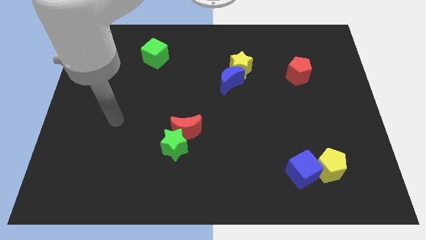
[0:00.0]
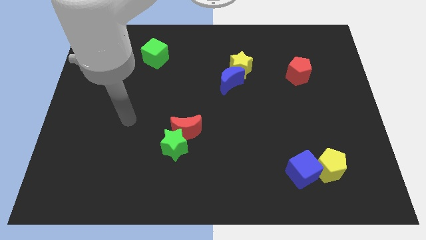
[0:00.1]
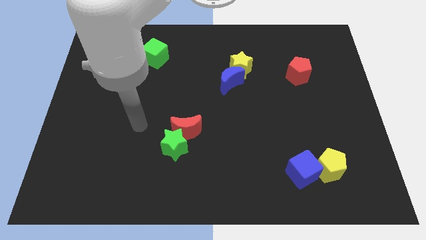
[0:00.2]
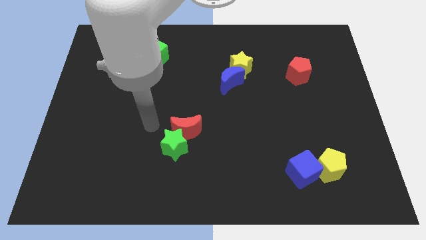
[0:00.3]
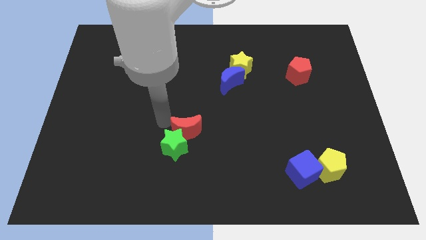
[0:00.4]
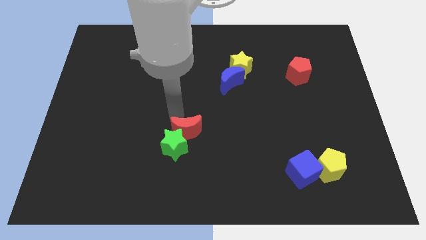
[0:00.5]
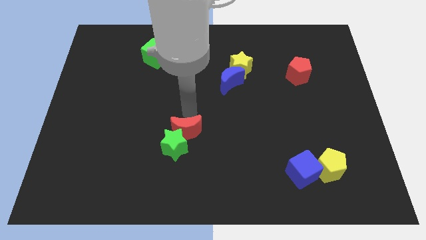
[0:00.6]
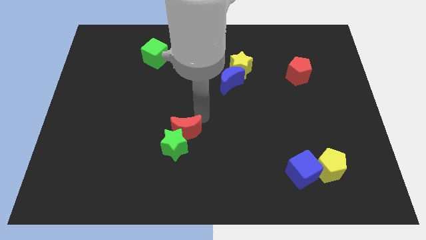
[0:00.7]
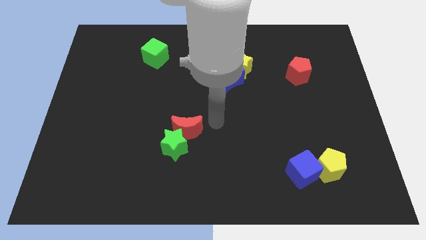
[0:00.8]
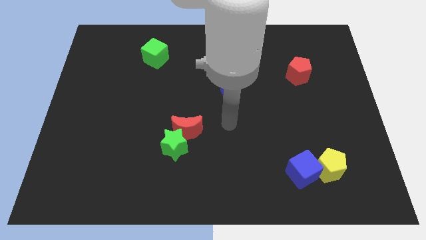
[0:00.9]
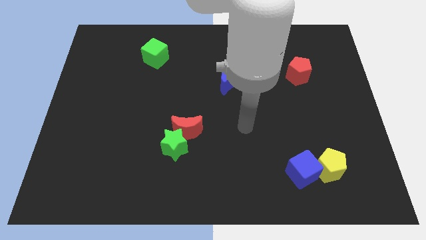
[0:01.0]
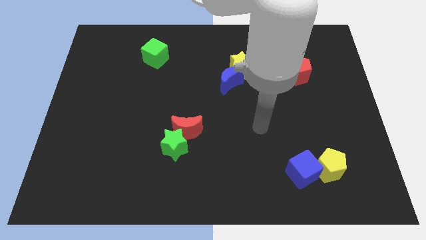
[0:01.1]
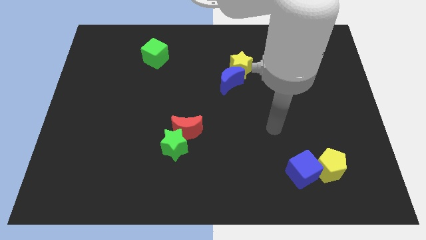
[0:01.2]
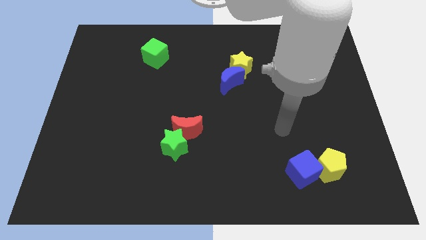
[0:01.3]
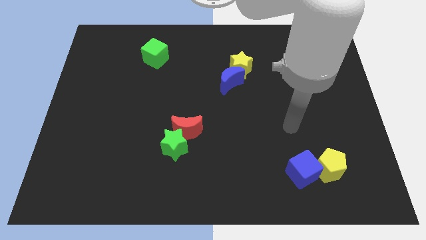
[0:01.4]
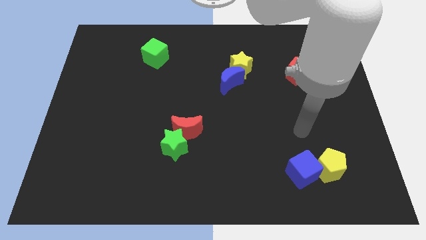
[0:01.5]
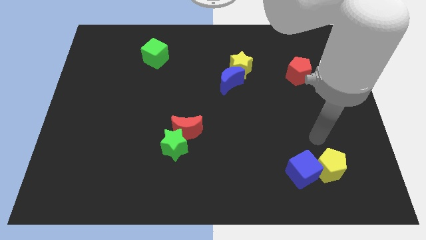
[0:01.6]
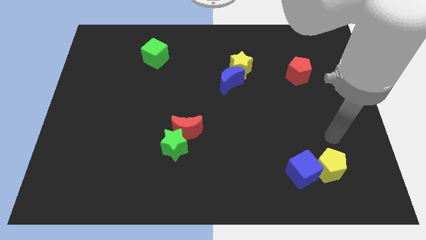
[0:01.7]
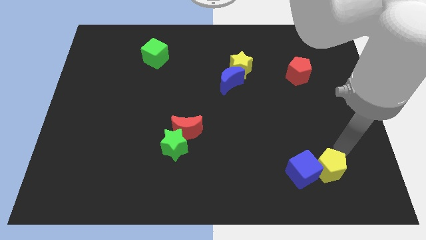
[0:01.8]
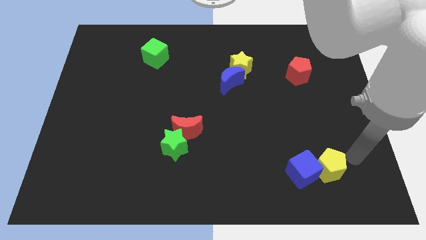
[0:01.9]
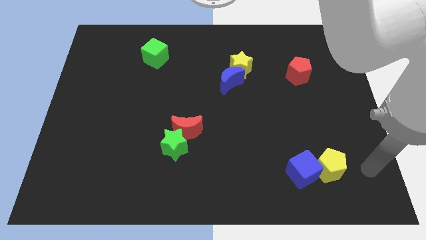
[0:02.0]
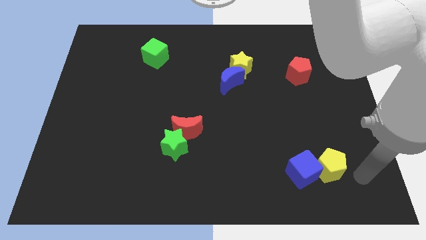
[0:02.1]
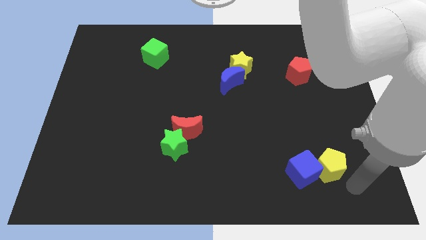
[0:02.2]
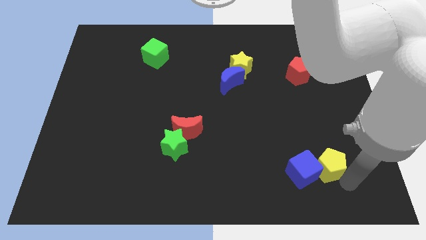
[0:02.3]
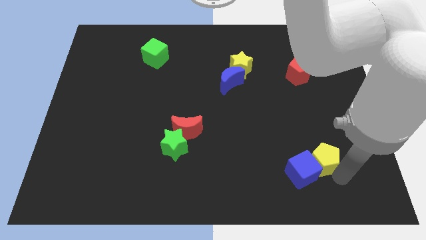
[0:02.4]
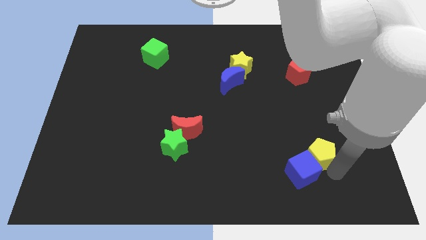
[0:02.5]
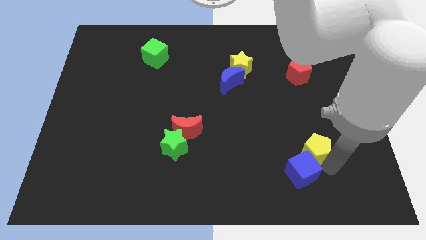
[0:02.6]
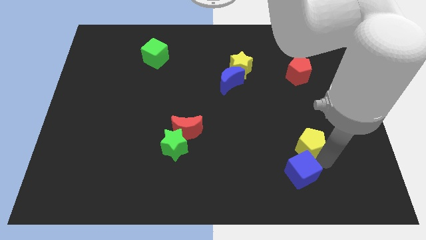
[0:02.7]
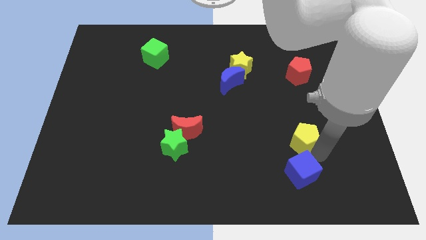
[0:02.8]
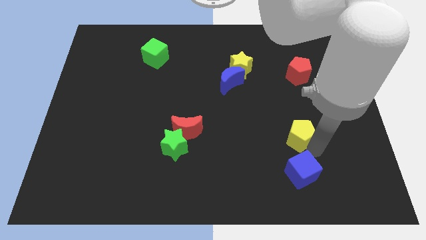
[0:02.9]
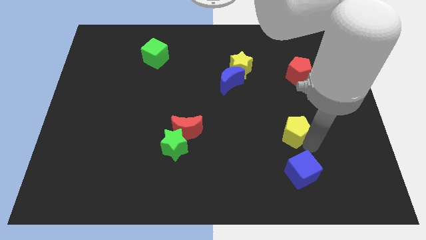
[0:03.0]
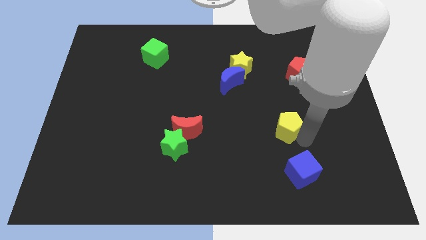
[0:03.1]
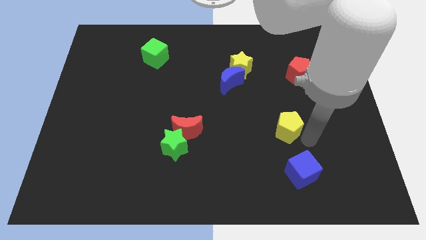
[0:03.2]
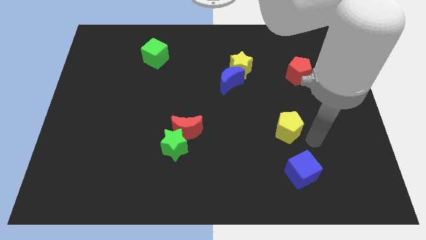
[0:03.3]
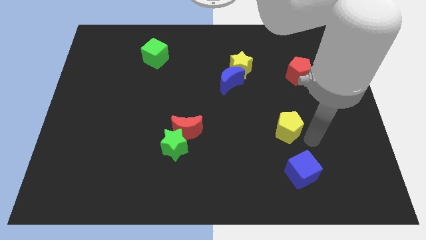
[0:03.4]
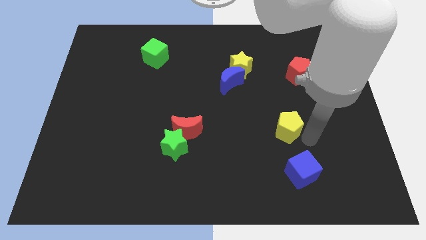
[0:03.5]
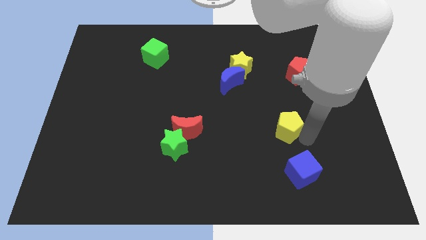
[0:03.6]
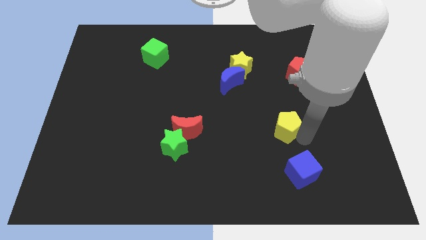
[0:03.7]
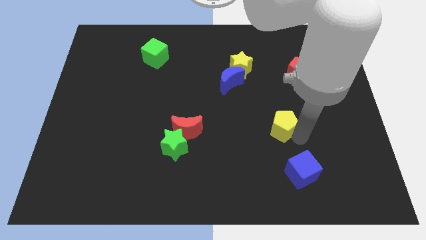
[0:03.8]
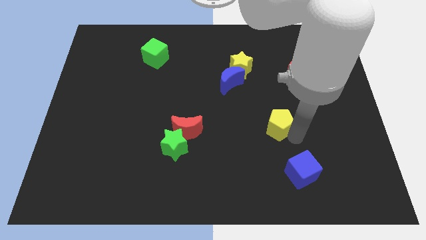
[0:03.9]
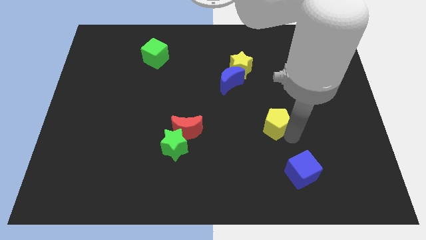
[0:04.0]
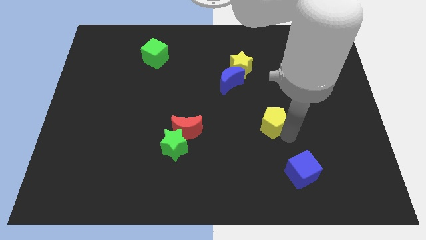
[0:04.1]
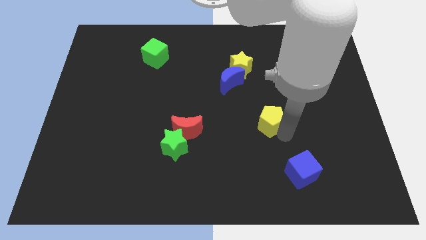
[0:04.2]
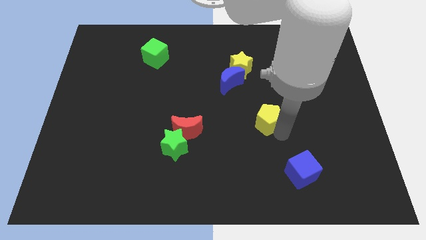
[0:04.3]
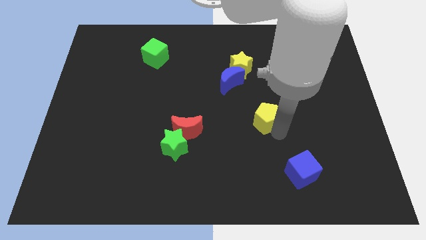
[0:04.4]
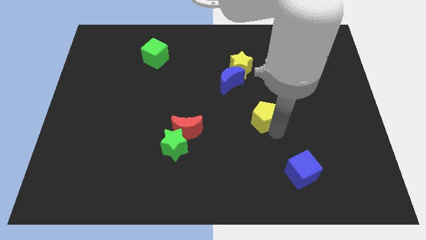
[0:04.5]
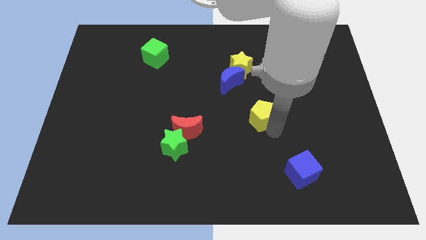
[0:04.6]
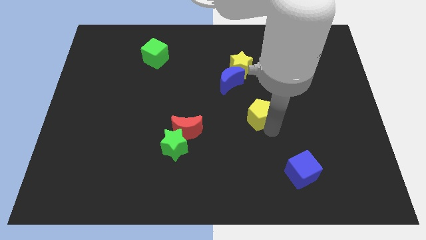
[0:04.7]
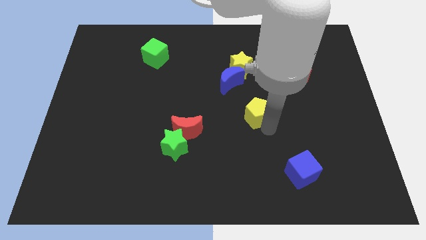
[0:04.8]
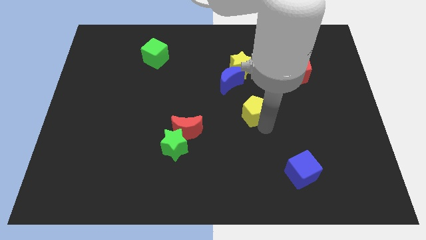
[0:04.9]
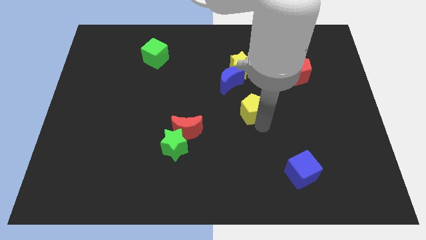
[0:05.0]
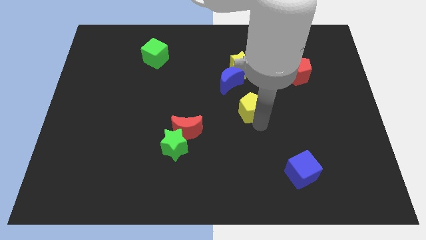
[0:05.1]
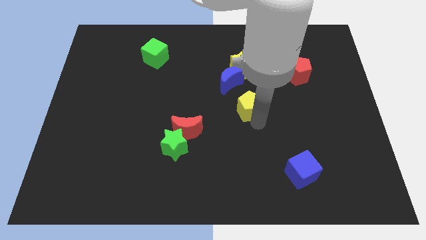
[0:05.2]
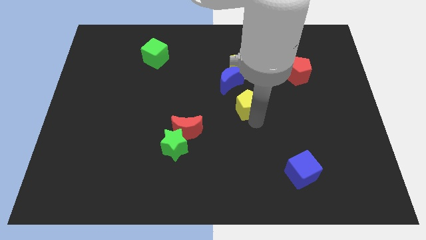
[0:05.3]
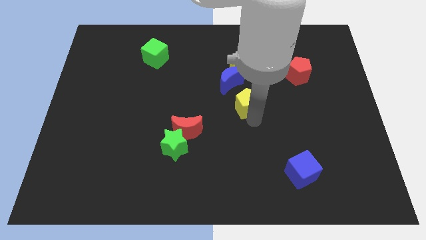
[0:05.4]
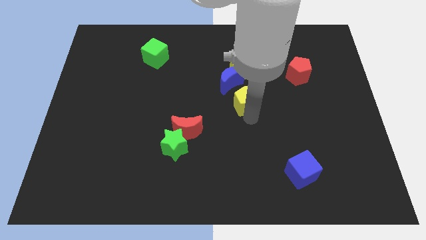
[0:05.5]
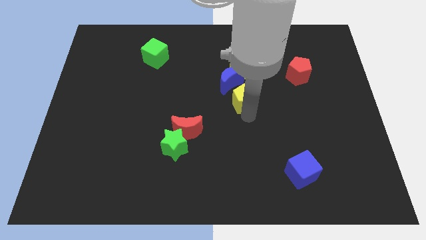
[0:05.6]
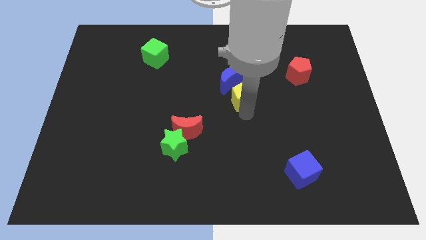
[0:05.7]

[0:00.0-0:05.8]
slide the yellow pentagon to the blue moon
